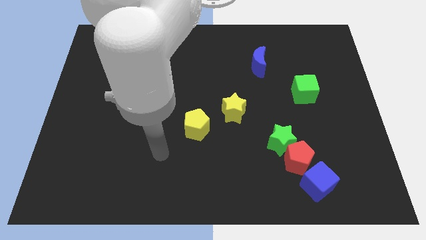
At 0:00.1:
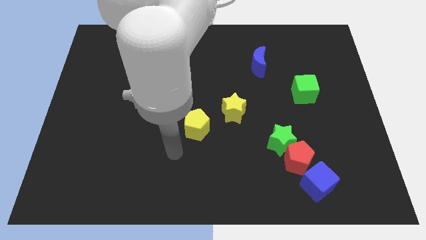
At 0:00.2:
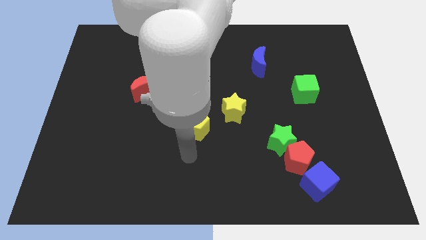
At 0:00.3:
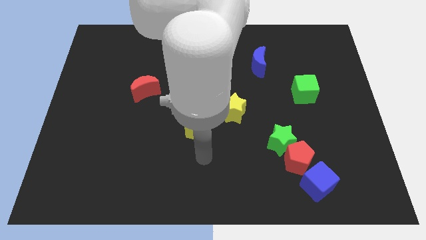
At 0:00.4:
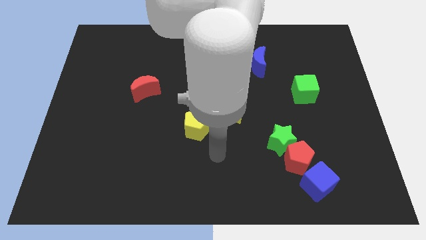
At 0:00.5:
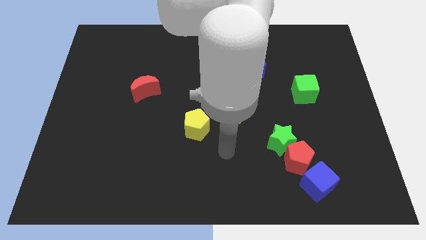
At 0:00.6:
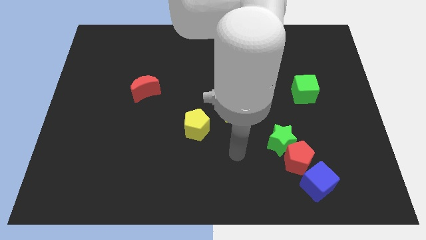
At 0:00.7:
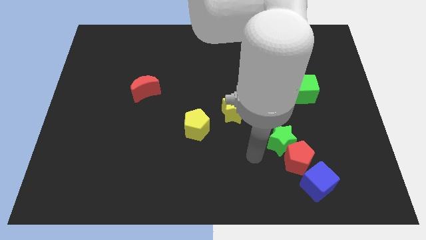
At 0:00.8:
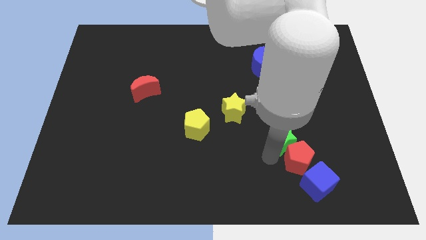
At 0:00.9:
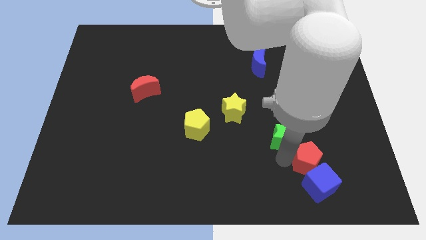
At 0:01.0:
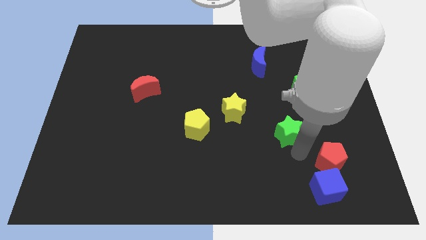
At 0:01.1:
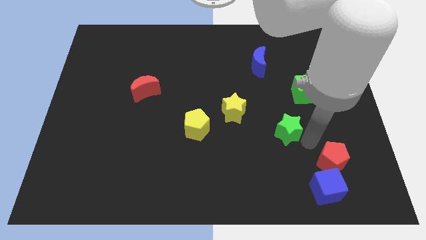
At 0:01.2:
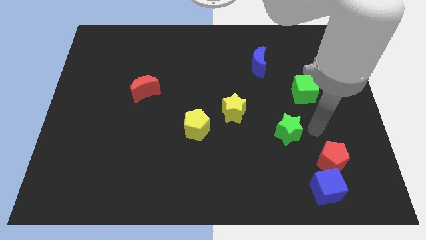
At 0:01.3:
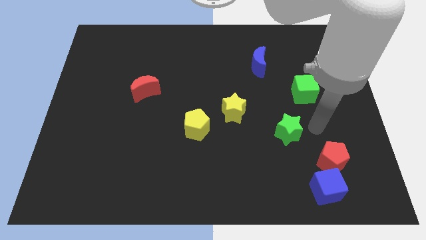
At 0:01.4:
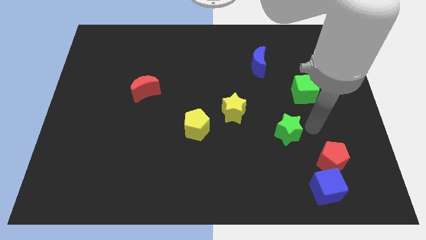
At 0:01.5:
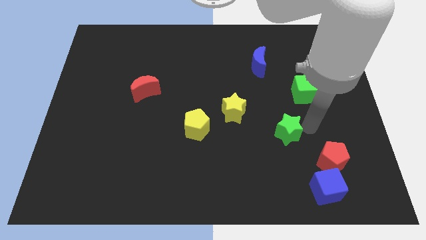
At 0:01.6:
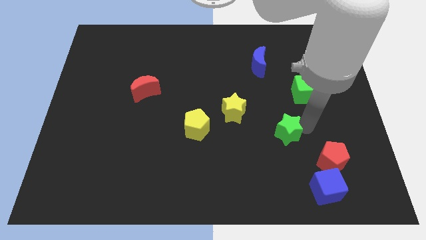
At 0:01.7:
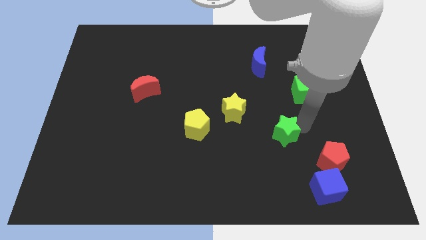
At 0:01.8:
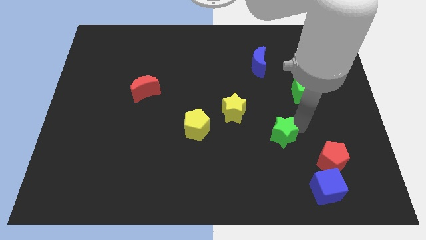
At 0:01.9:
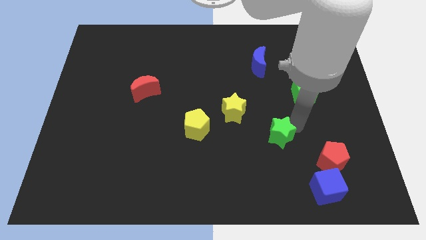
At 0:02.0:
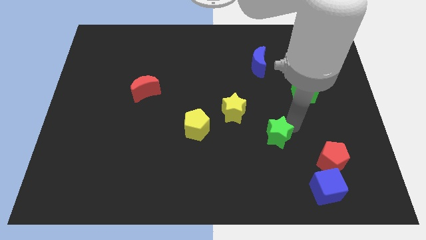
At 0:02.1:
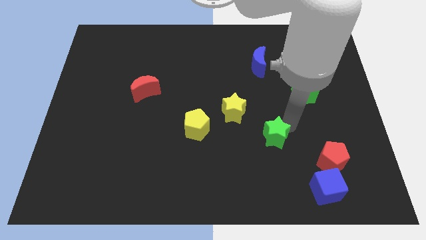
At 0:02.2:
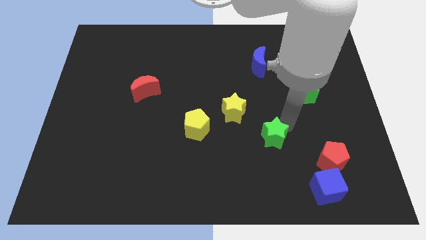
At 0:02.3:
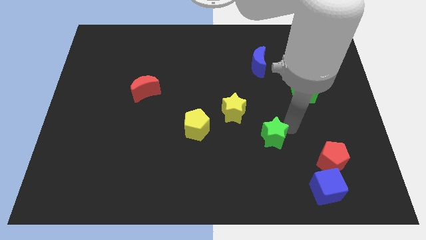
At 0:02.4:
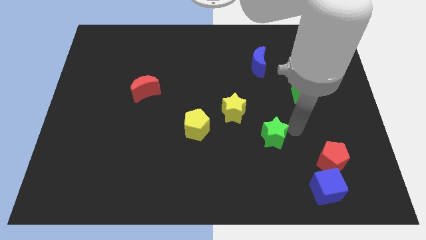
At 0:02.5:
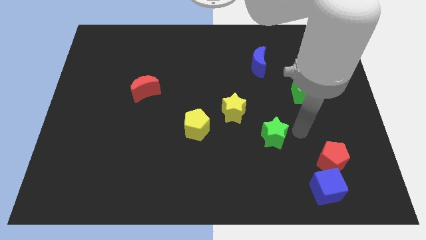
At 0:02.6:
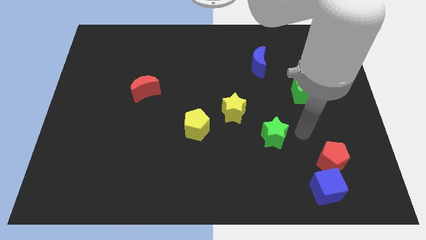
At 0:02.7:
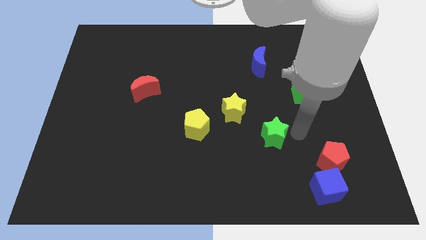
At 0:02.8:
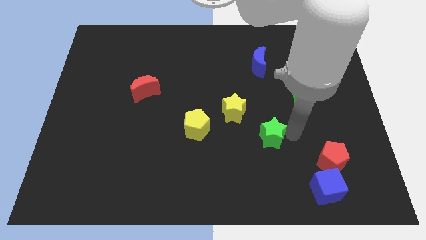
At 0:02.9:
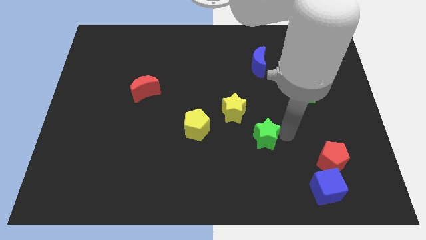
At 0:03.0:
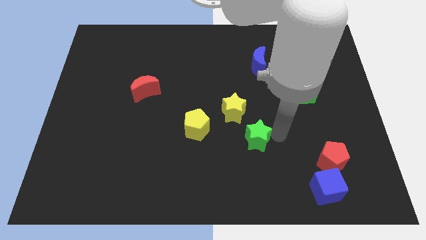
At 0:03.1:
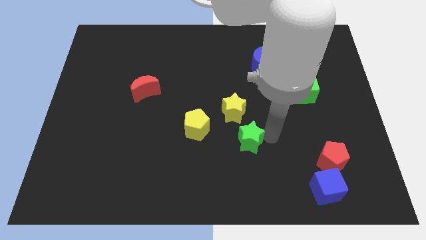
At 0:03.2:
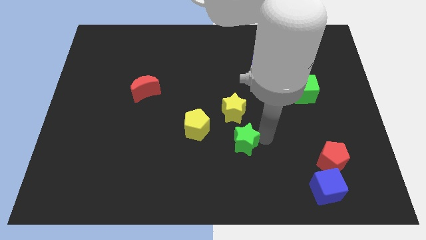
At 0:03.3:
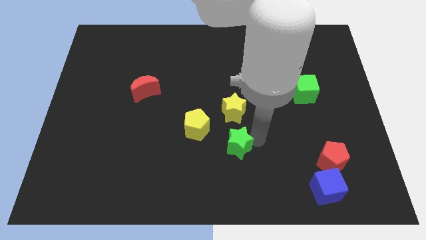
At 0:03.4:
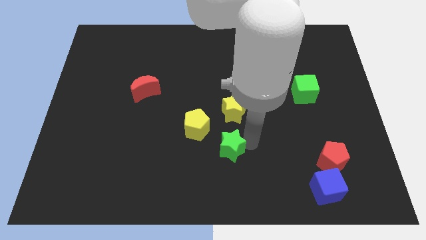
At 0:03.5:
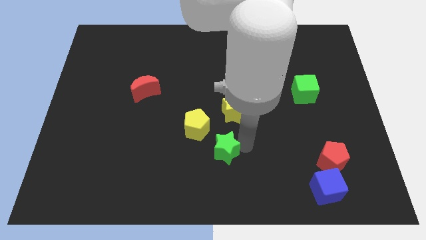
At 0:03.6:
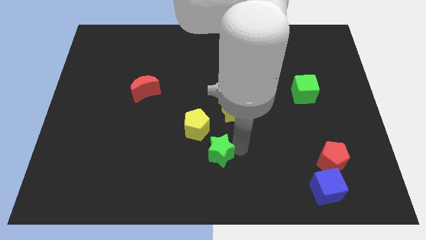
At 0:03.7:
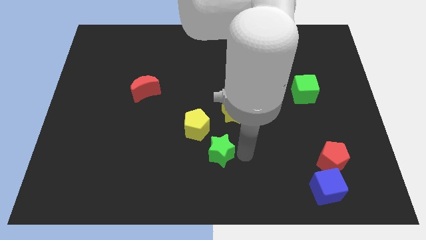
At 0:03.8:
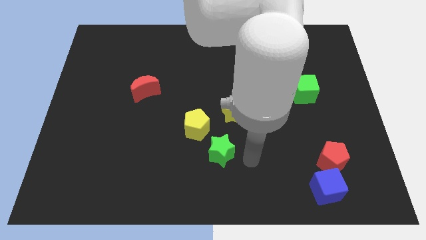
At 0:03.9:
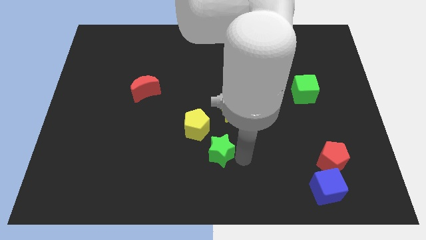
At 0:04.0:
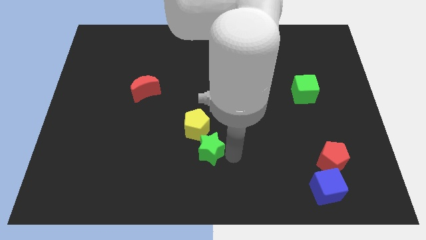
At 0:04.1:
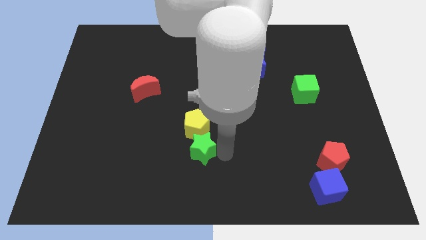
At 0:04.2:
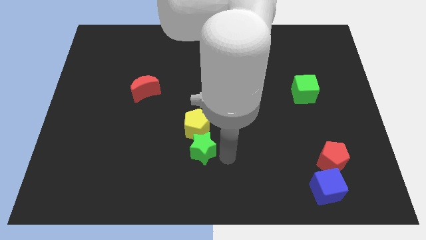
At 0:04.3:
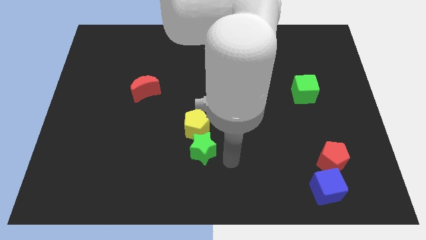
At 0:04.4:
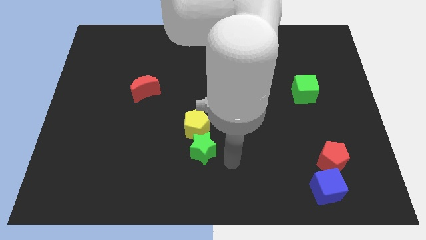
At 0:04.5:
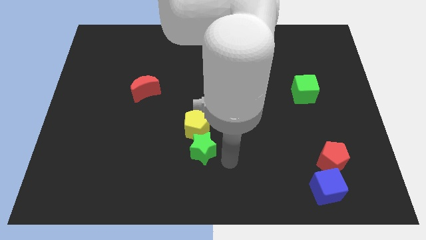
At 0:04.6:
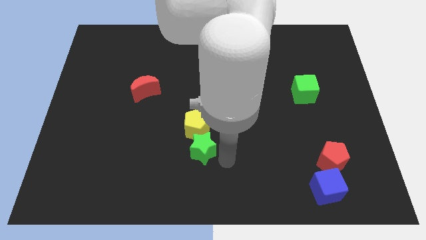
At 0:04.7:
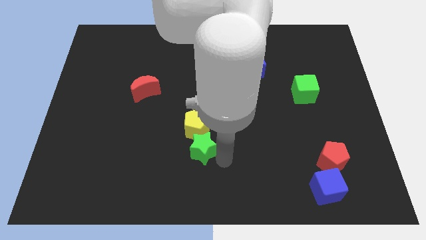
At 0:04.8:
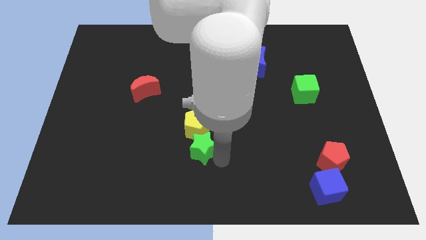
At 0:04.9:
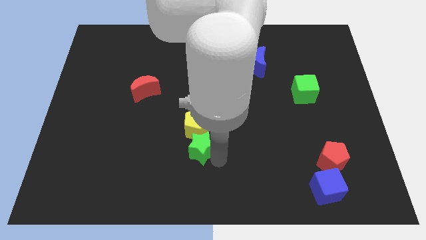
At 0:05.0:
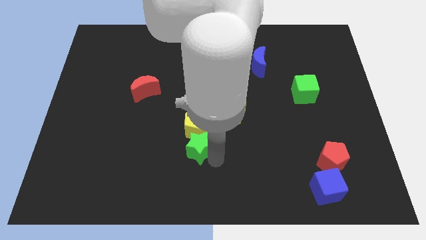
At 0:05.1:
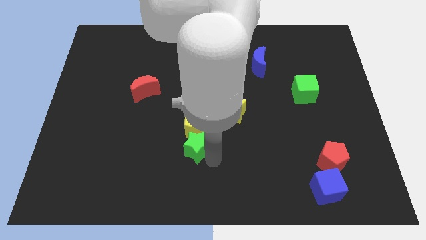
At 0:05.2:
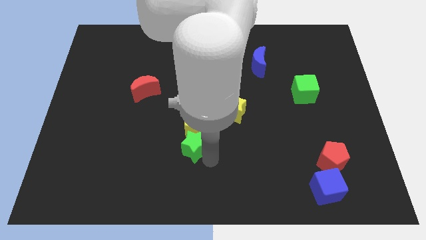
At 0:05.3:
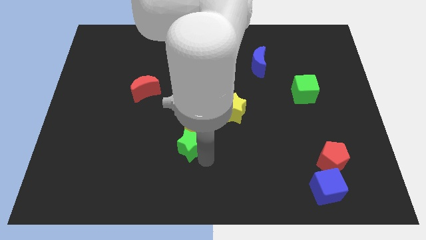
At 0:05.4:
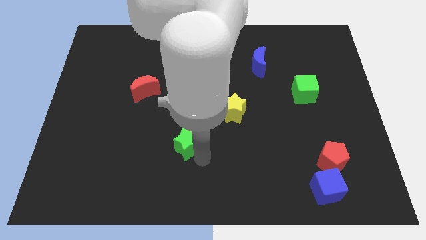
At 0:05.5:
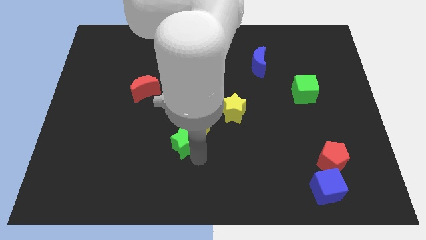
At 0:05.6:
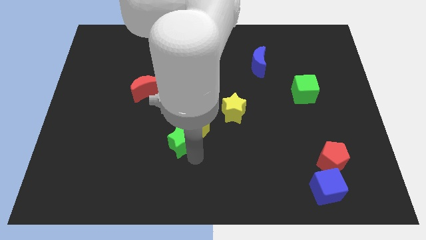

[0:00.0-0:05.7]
move the green star just left of the yellow pentagon

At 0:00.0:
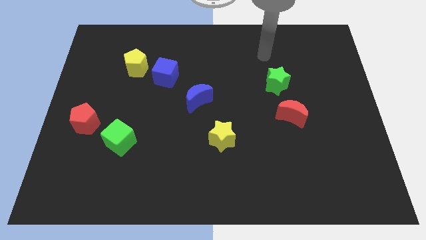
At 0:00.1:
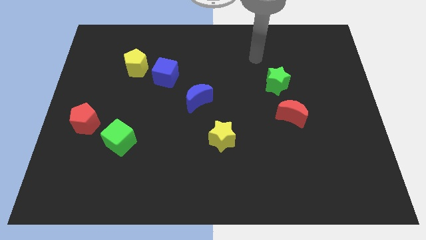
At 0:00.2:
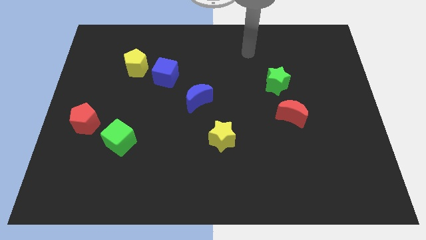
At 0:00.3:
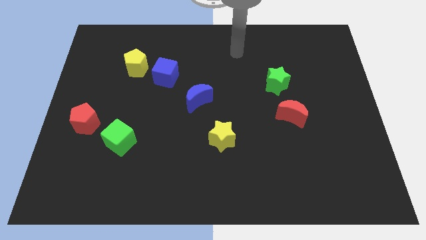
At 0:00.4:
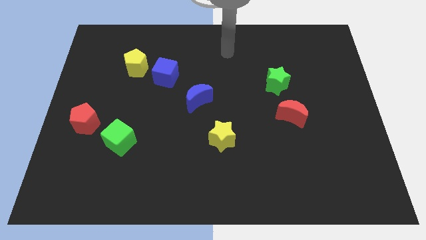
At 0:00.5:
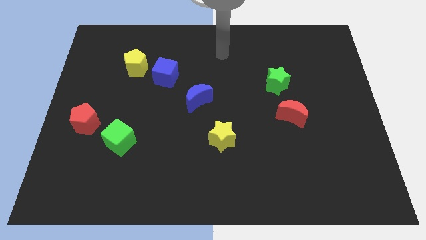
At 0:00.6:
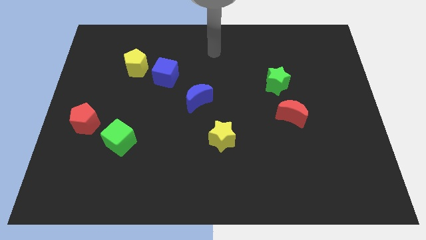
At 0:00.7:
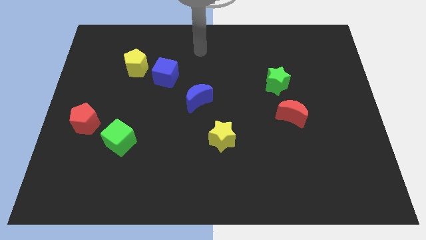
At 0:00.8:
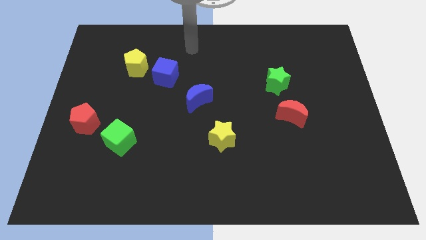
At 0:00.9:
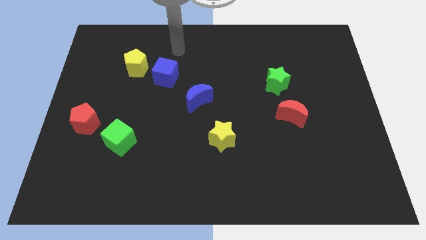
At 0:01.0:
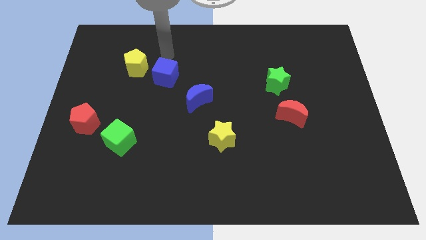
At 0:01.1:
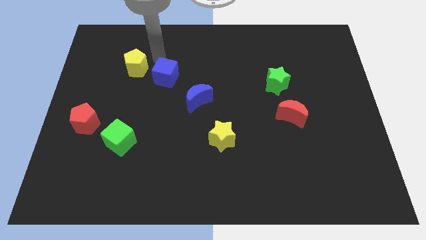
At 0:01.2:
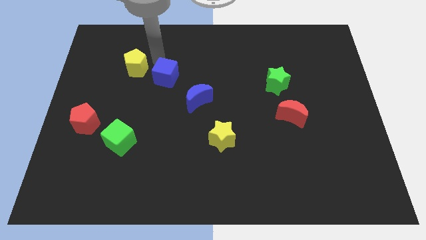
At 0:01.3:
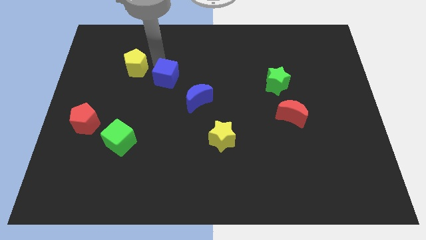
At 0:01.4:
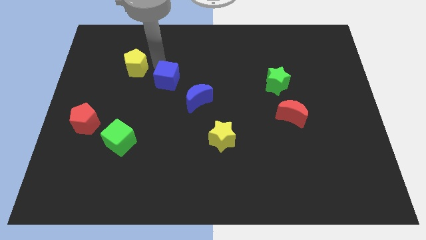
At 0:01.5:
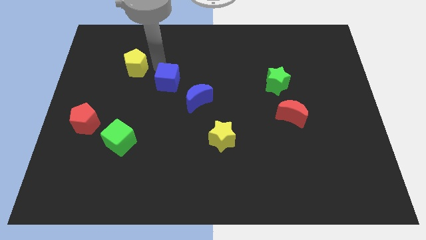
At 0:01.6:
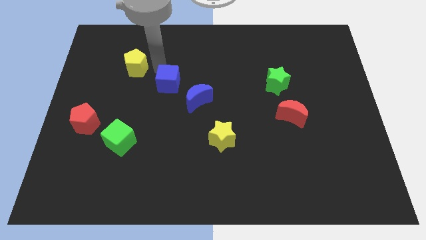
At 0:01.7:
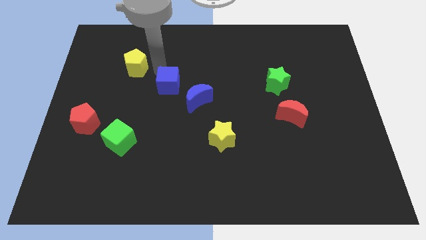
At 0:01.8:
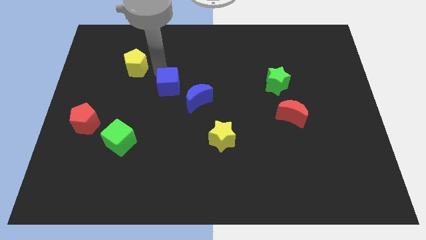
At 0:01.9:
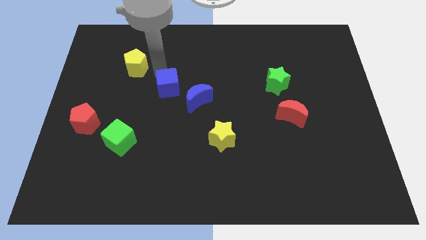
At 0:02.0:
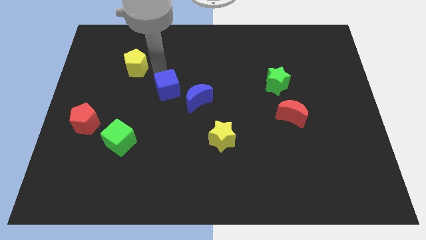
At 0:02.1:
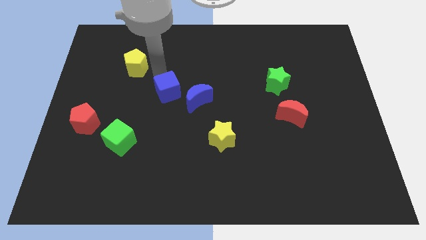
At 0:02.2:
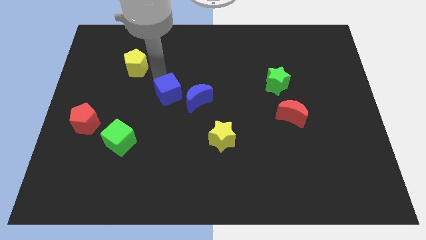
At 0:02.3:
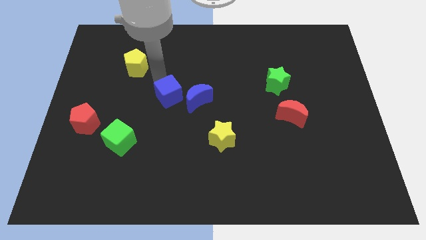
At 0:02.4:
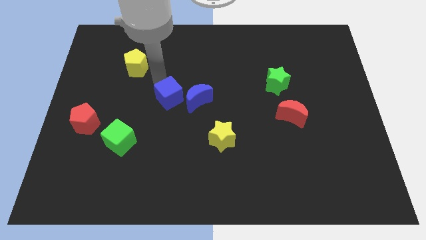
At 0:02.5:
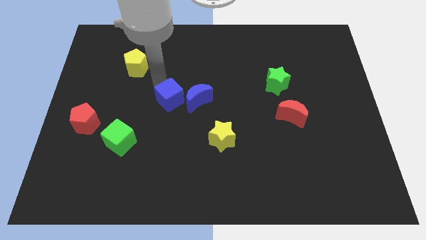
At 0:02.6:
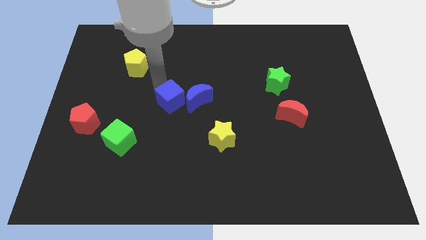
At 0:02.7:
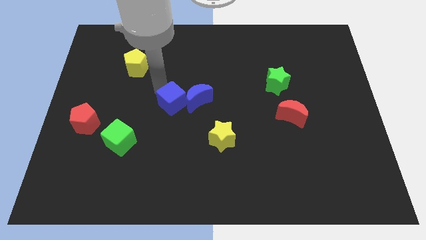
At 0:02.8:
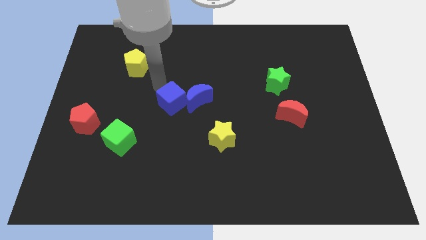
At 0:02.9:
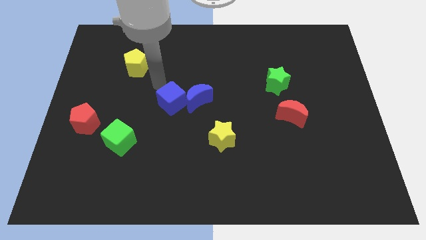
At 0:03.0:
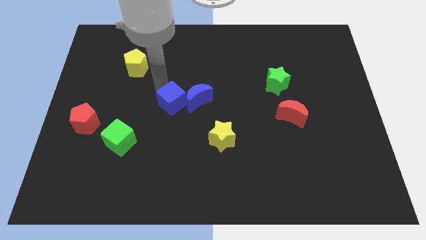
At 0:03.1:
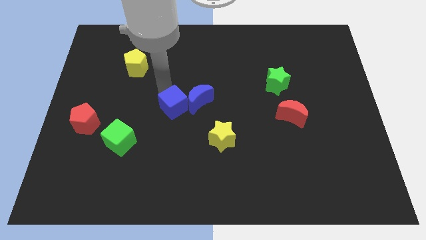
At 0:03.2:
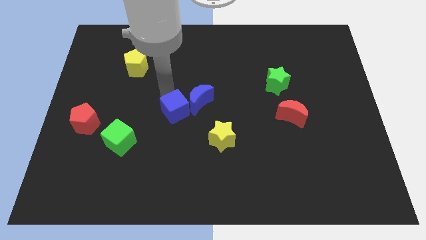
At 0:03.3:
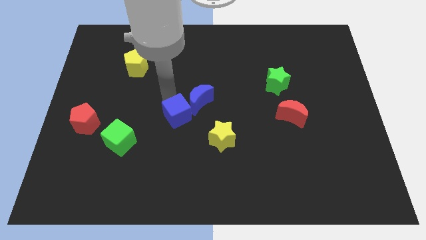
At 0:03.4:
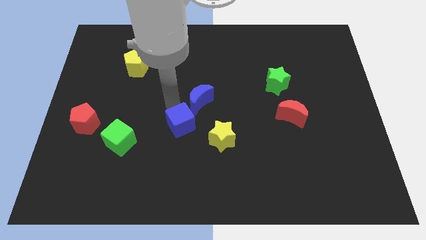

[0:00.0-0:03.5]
move the blue cube to the bottom side of the blue moon
